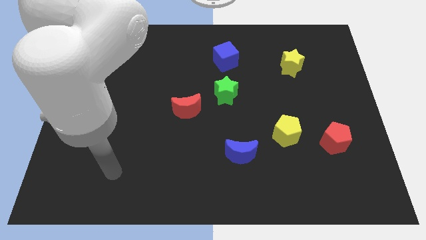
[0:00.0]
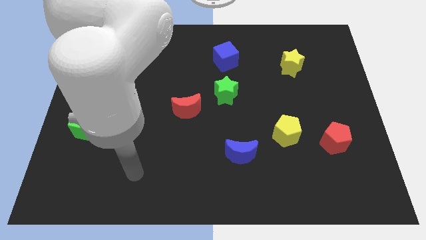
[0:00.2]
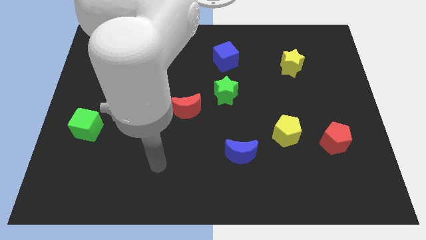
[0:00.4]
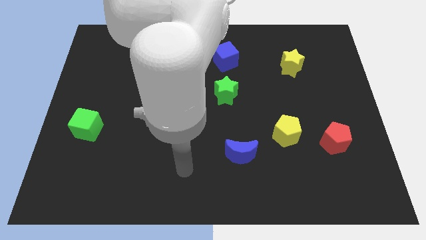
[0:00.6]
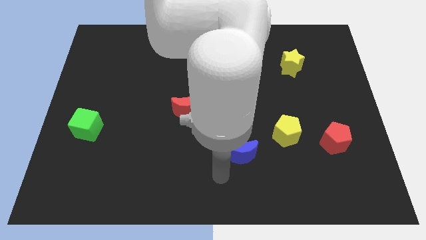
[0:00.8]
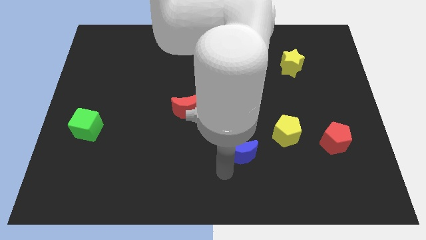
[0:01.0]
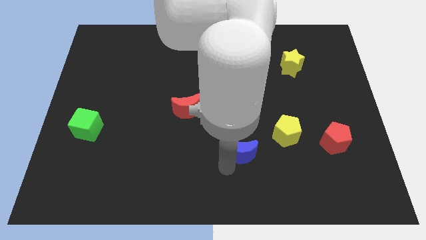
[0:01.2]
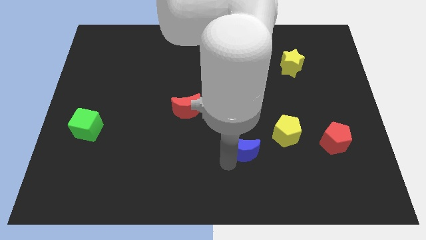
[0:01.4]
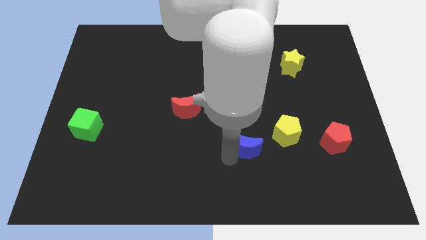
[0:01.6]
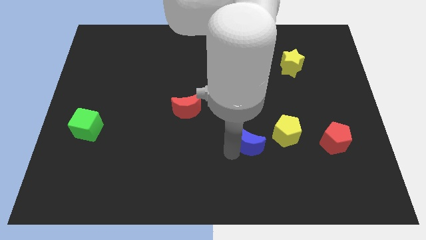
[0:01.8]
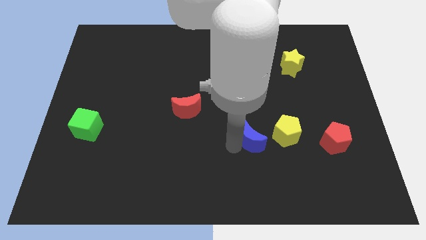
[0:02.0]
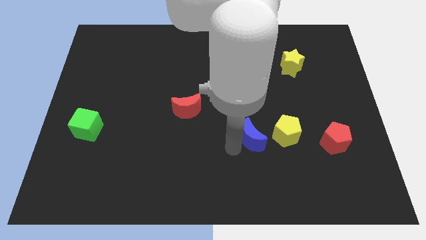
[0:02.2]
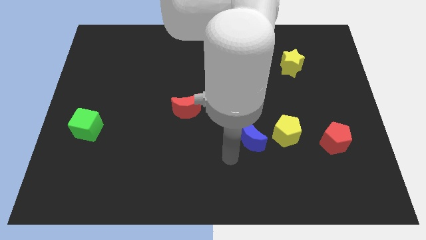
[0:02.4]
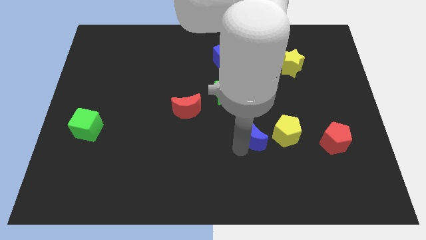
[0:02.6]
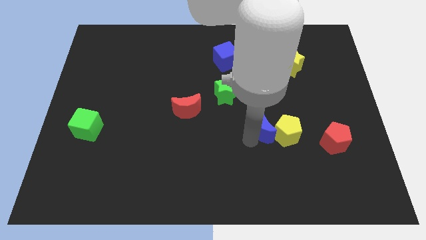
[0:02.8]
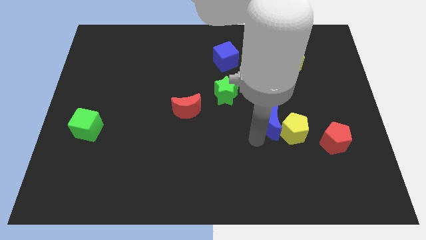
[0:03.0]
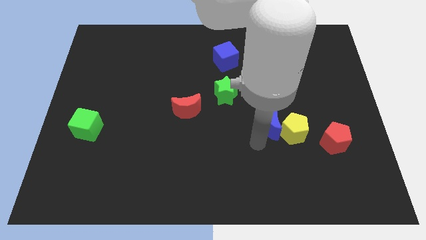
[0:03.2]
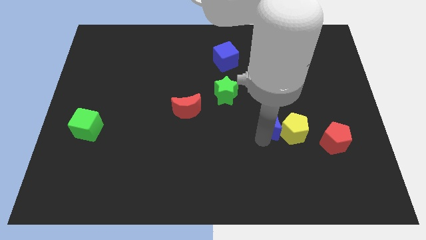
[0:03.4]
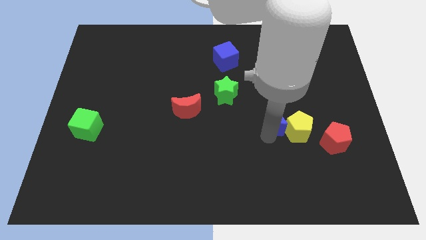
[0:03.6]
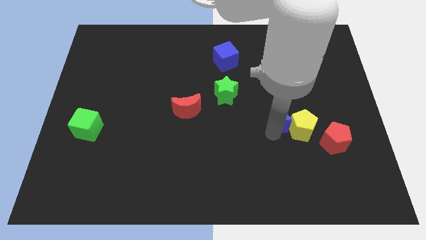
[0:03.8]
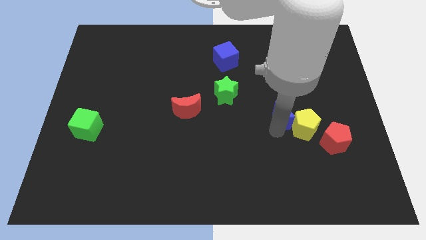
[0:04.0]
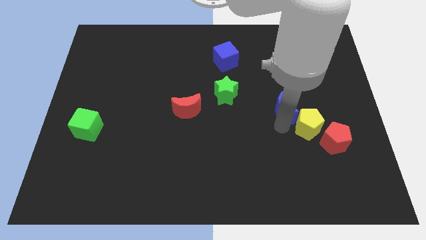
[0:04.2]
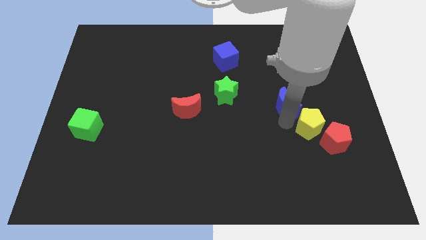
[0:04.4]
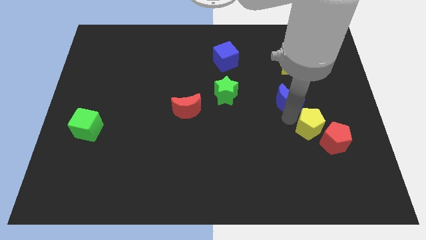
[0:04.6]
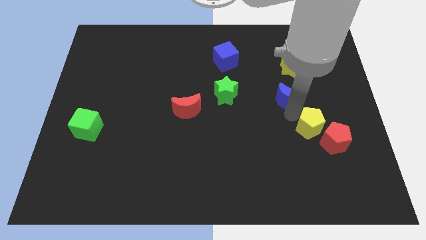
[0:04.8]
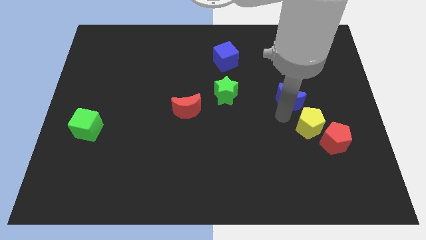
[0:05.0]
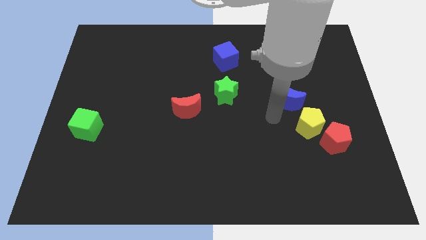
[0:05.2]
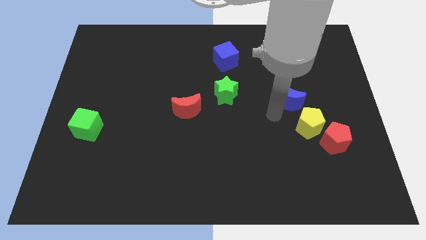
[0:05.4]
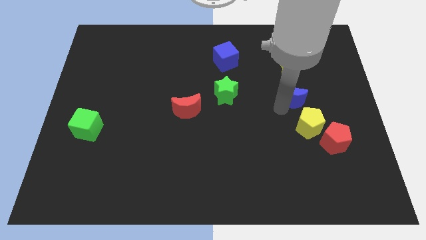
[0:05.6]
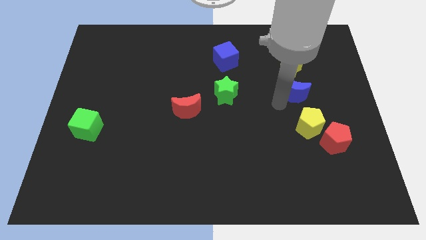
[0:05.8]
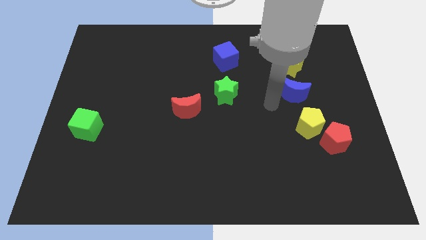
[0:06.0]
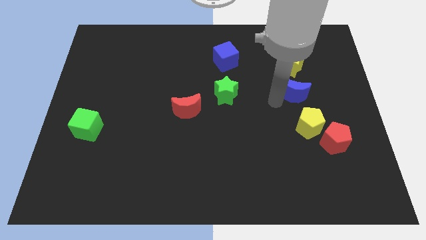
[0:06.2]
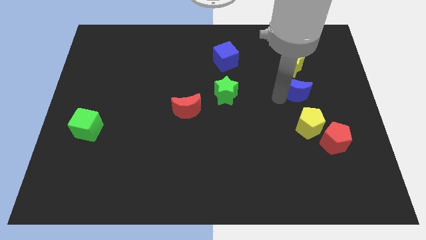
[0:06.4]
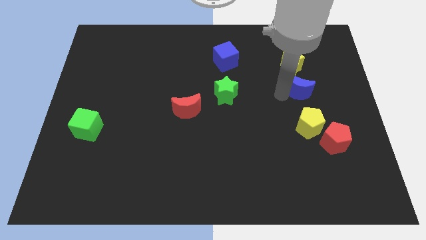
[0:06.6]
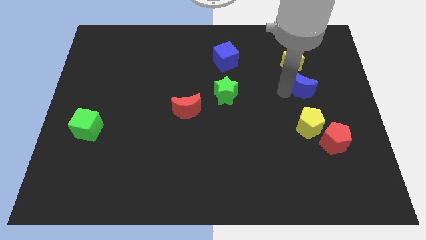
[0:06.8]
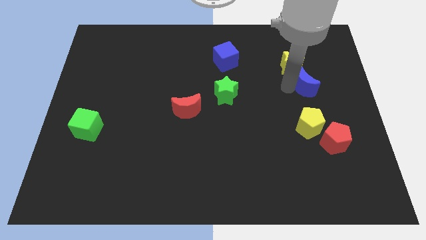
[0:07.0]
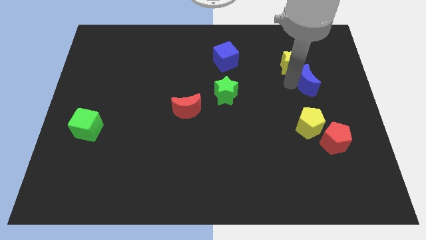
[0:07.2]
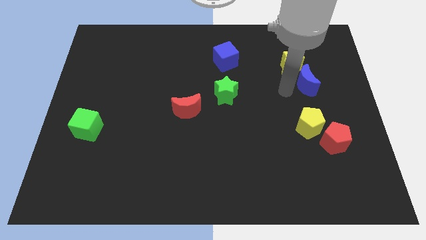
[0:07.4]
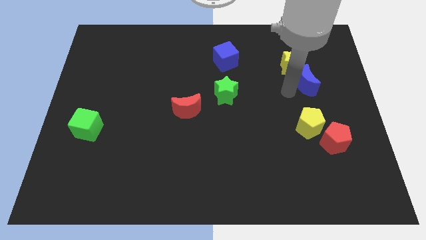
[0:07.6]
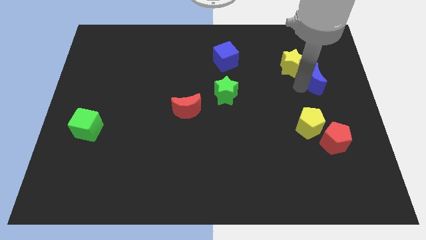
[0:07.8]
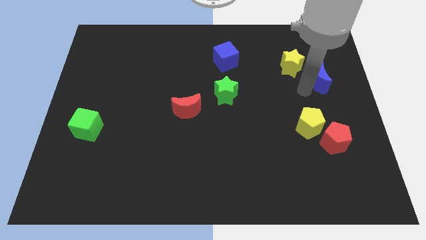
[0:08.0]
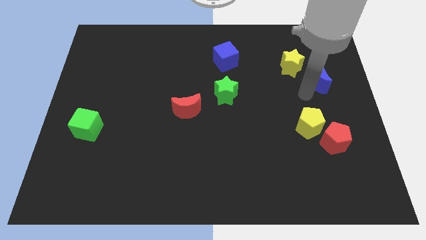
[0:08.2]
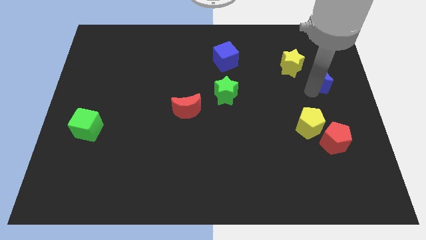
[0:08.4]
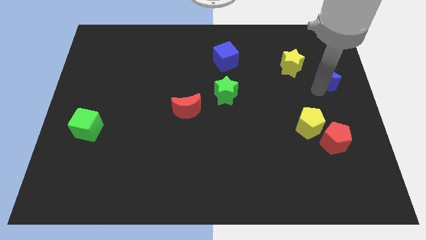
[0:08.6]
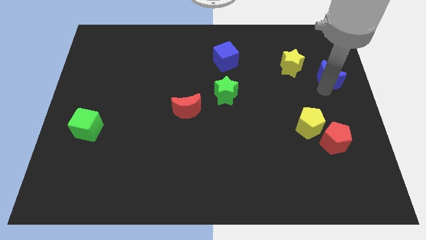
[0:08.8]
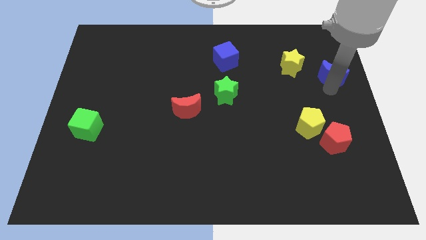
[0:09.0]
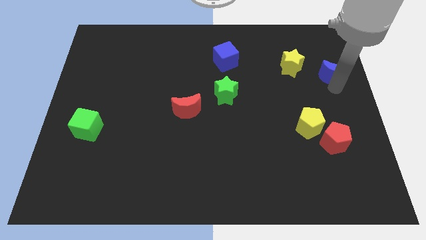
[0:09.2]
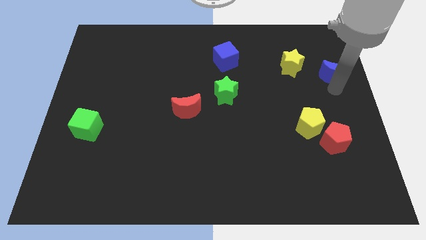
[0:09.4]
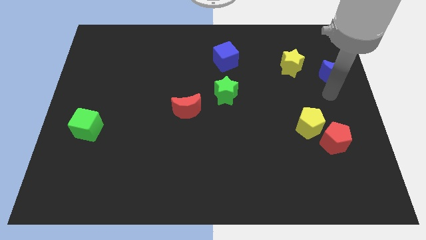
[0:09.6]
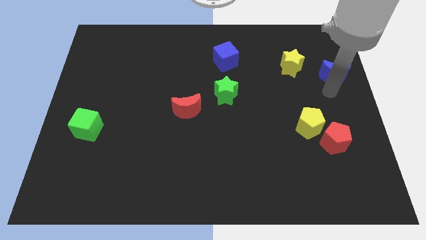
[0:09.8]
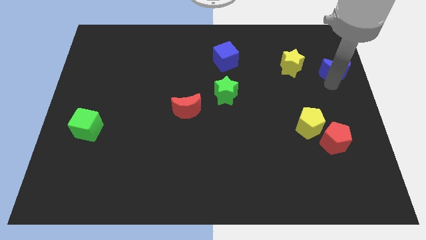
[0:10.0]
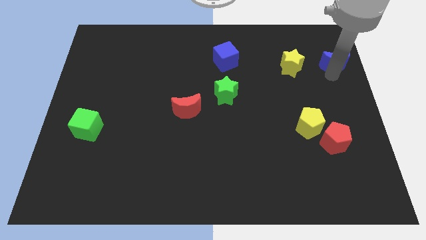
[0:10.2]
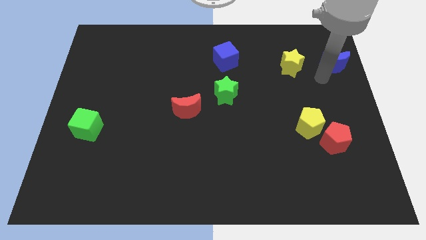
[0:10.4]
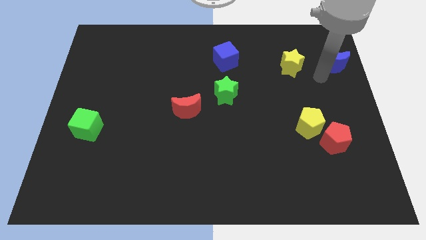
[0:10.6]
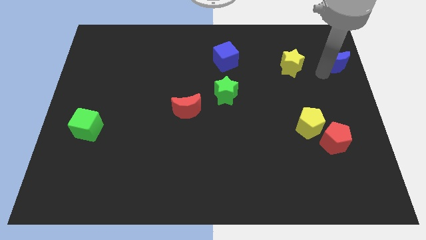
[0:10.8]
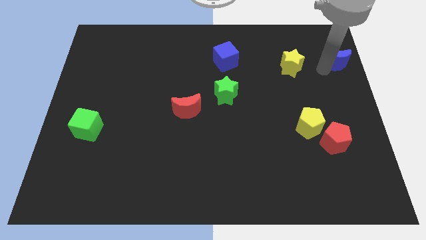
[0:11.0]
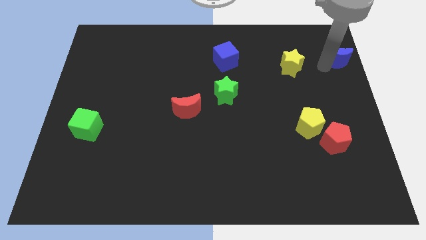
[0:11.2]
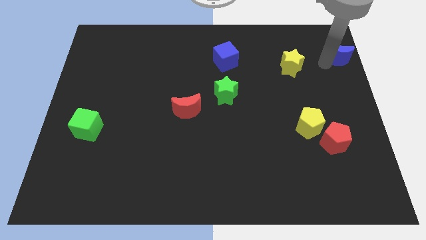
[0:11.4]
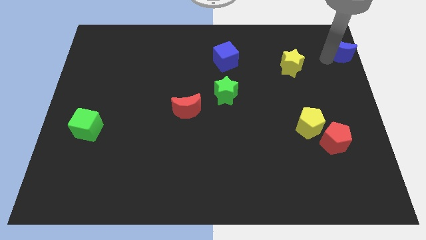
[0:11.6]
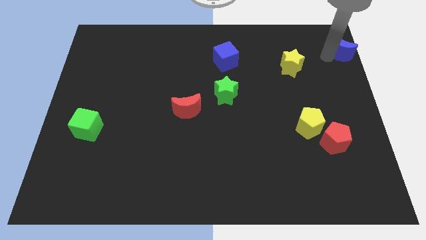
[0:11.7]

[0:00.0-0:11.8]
push the blue moon to the top right of the board
